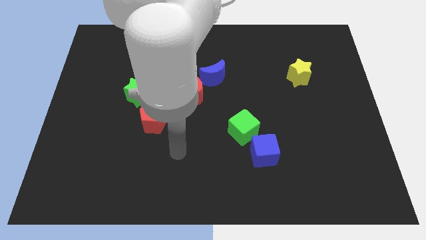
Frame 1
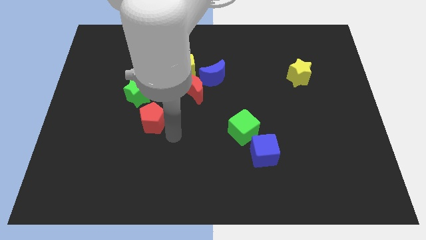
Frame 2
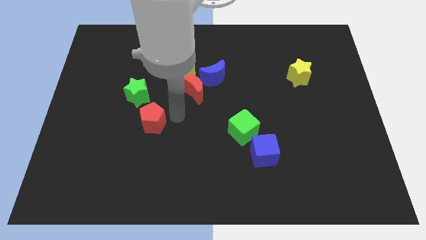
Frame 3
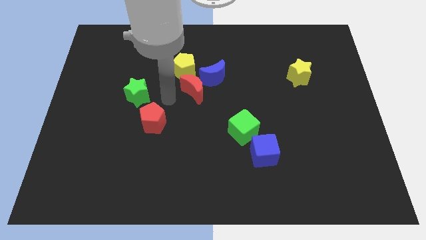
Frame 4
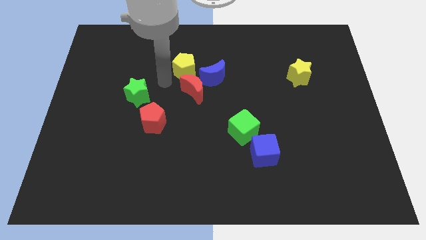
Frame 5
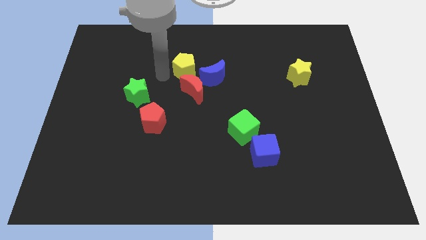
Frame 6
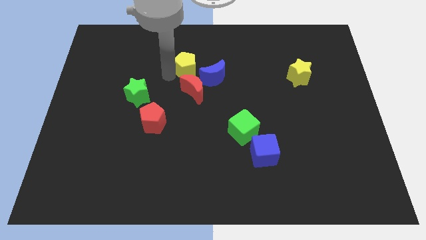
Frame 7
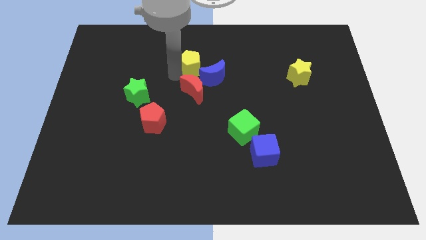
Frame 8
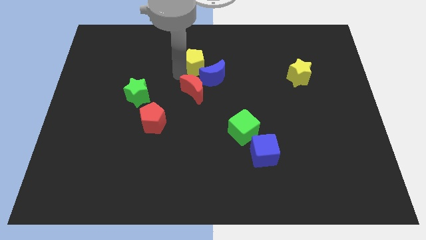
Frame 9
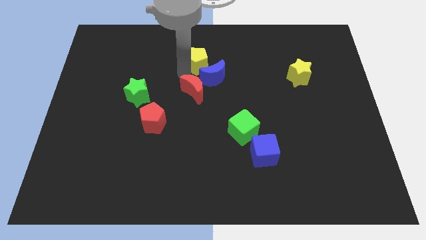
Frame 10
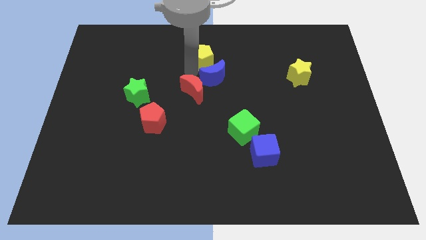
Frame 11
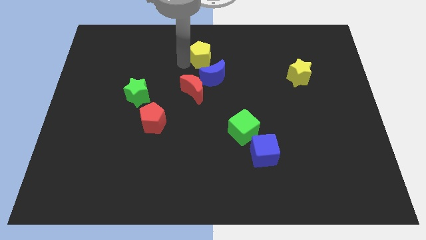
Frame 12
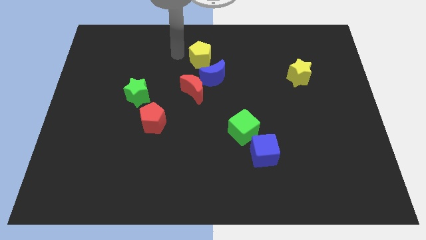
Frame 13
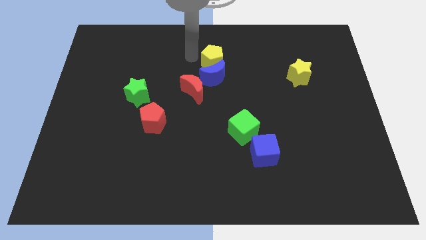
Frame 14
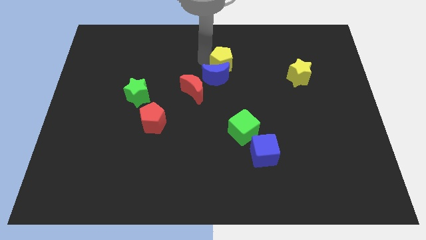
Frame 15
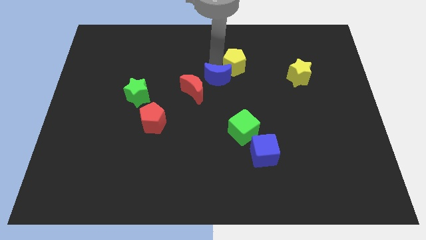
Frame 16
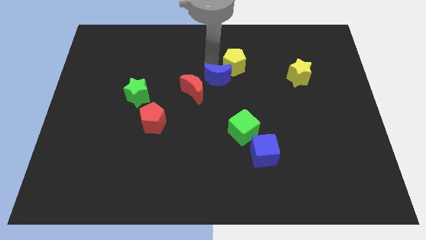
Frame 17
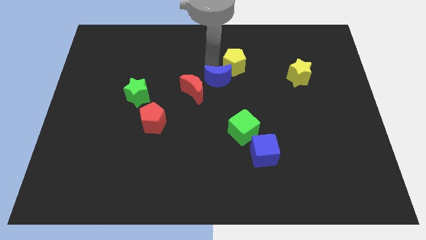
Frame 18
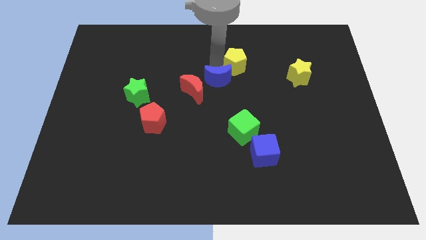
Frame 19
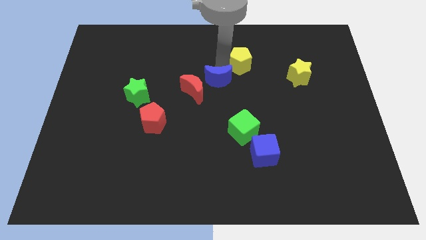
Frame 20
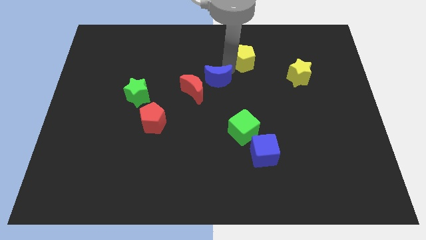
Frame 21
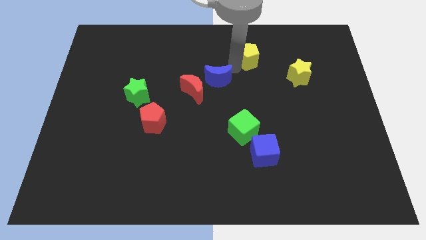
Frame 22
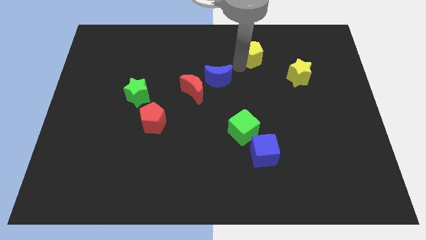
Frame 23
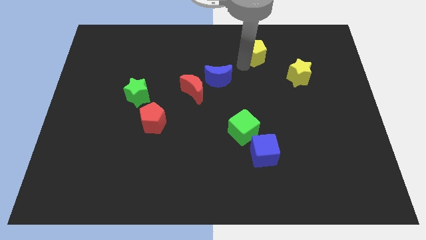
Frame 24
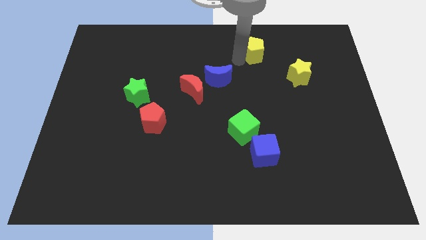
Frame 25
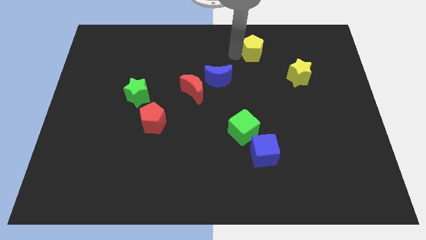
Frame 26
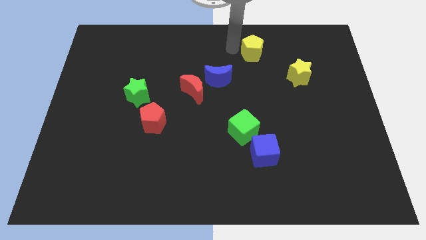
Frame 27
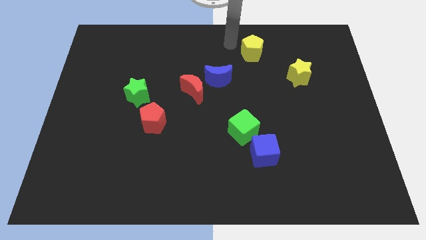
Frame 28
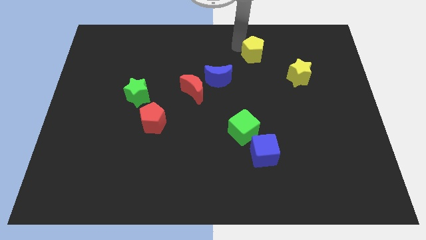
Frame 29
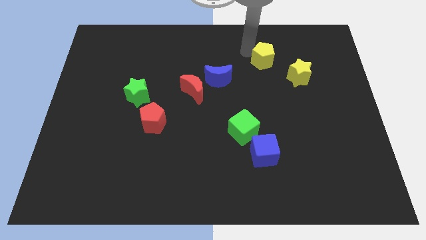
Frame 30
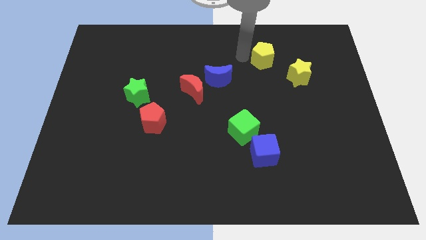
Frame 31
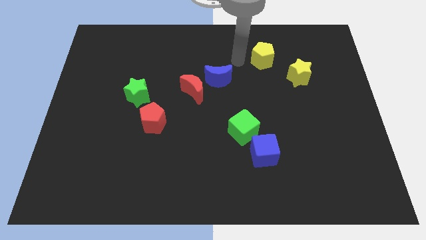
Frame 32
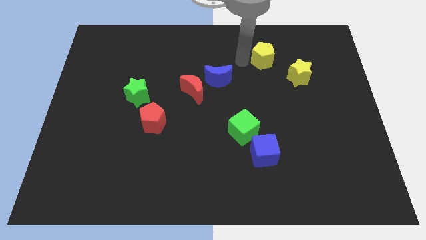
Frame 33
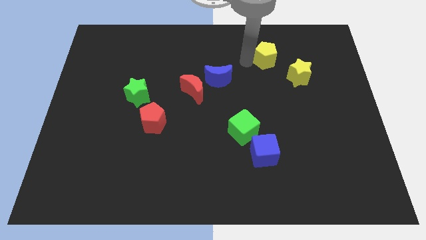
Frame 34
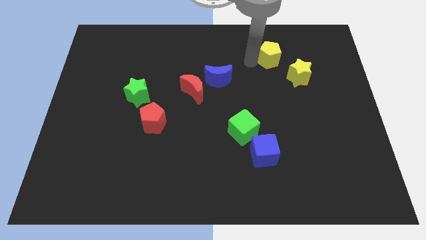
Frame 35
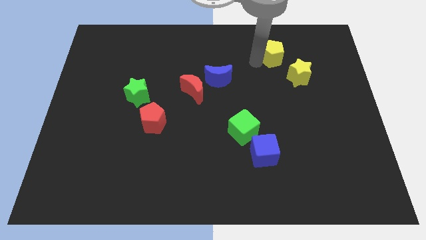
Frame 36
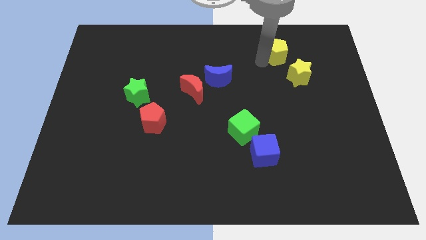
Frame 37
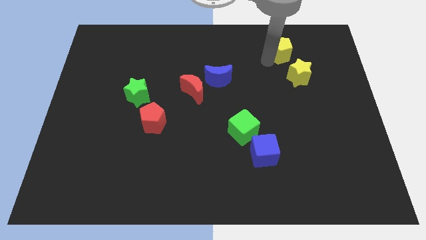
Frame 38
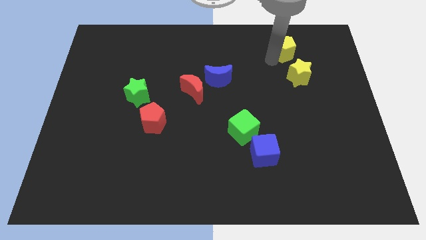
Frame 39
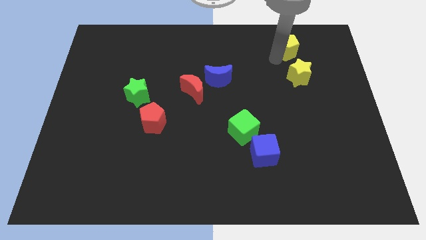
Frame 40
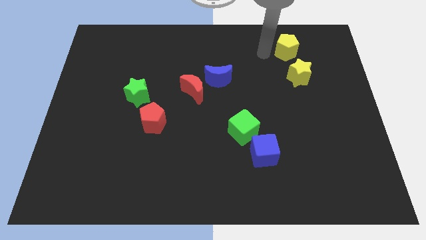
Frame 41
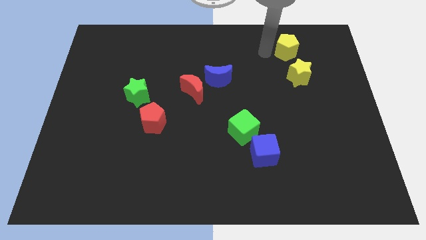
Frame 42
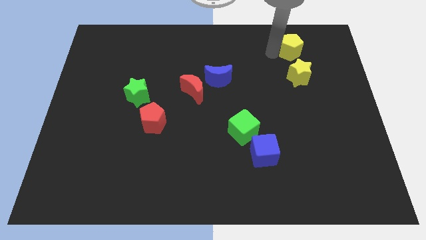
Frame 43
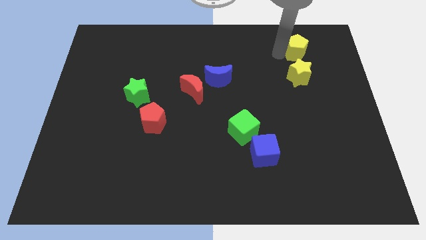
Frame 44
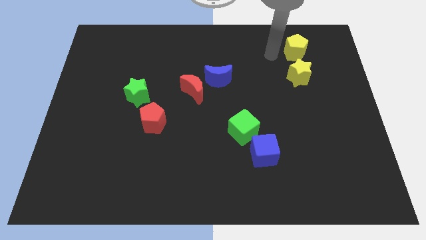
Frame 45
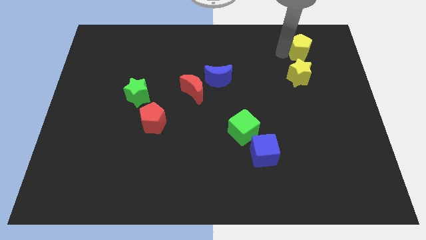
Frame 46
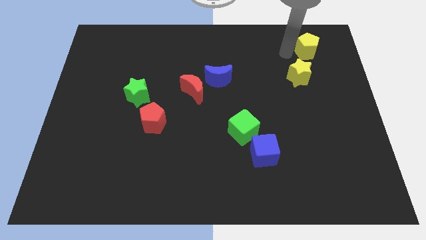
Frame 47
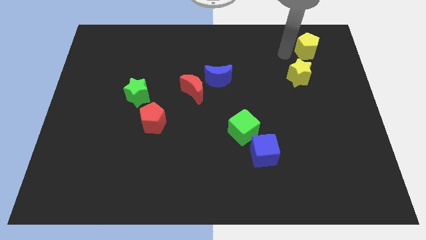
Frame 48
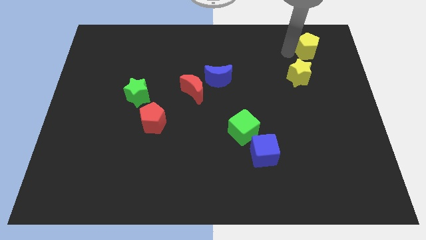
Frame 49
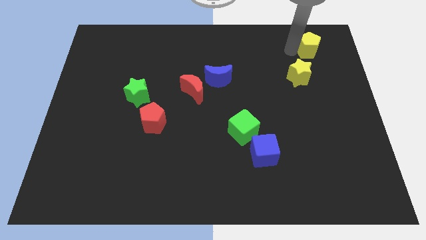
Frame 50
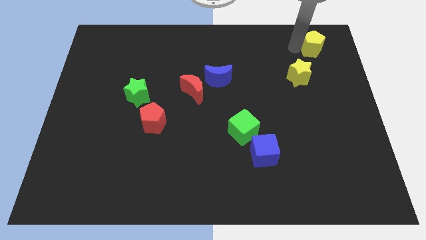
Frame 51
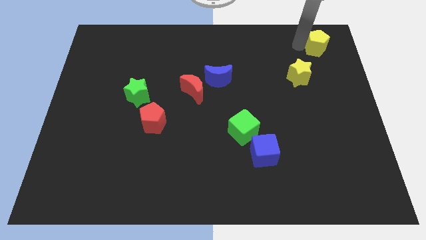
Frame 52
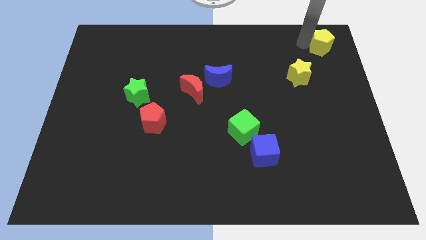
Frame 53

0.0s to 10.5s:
slide the yellow pentagon to the top right corner
